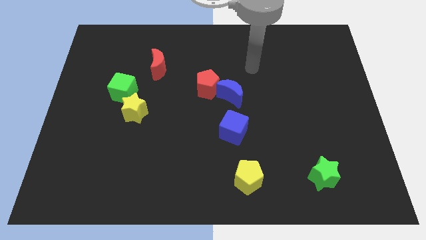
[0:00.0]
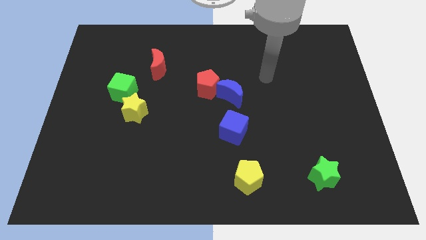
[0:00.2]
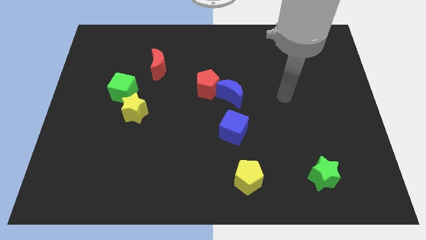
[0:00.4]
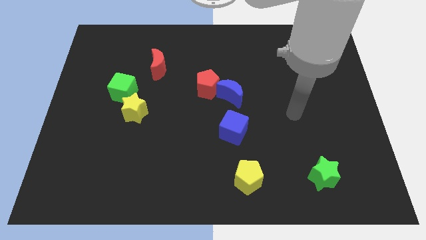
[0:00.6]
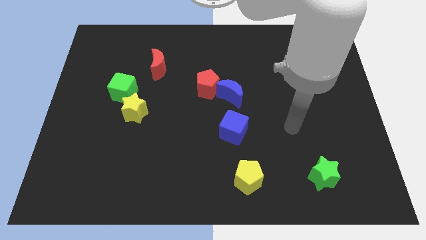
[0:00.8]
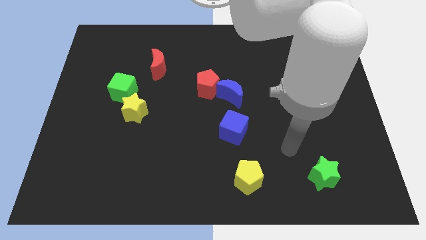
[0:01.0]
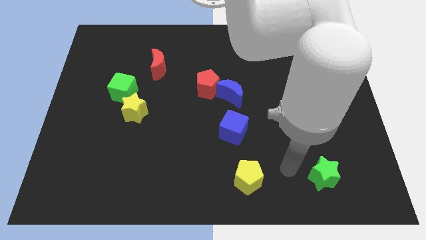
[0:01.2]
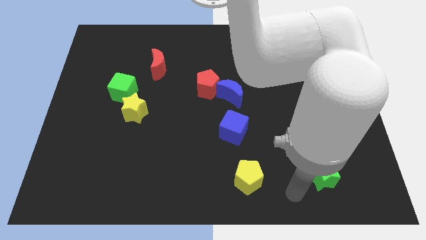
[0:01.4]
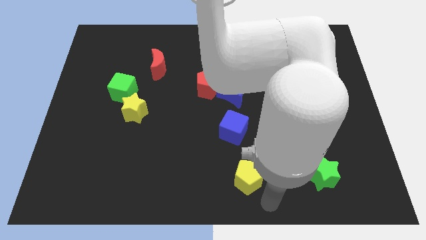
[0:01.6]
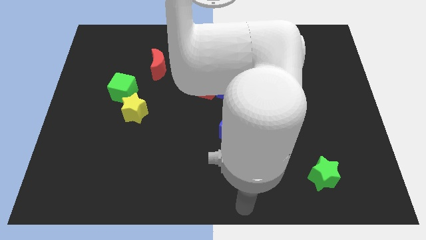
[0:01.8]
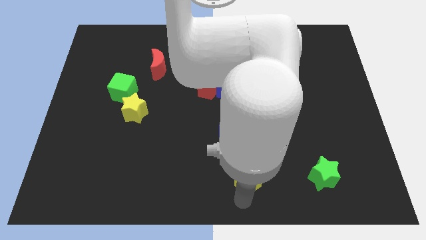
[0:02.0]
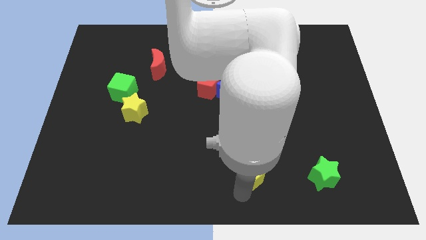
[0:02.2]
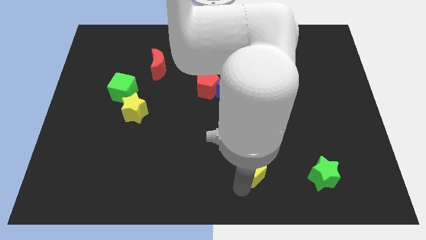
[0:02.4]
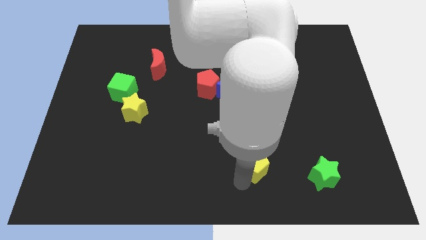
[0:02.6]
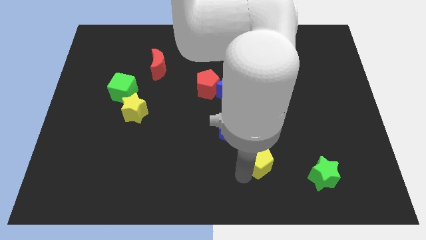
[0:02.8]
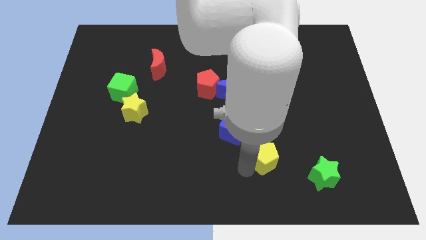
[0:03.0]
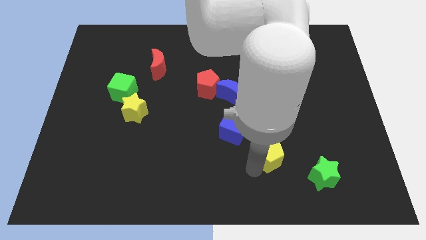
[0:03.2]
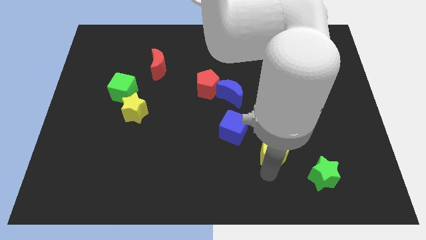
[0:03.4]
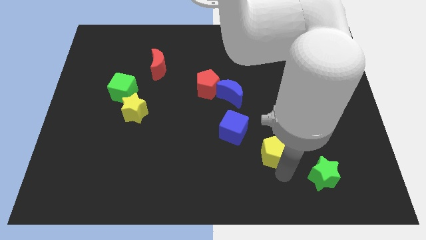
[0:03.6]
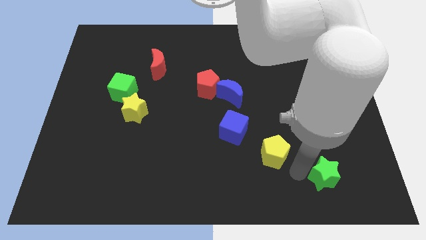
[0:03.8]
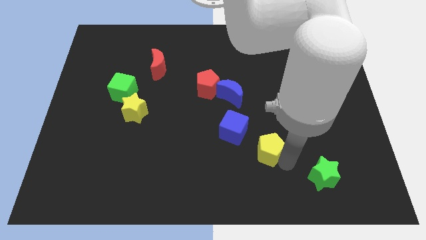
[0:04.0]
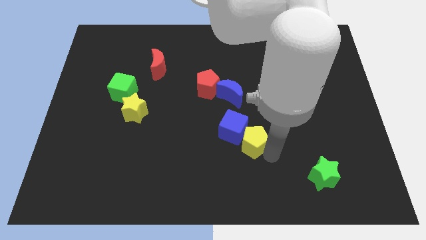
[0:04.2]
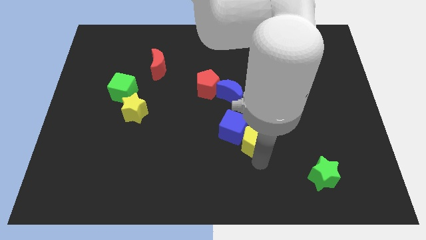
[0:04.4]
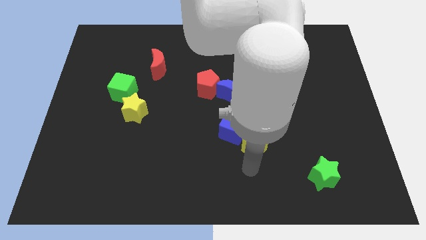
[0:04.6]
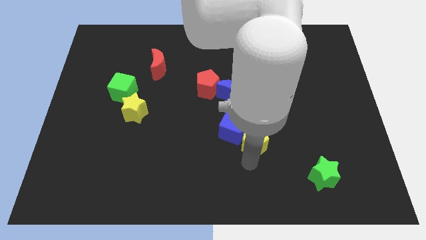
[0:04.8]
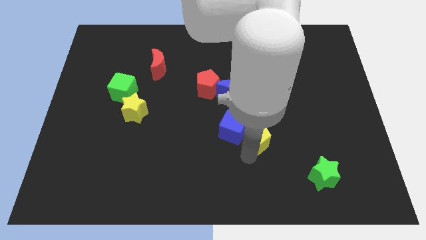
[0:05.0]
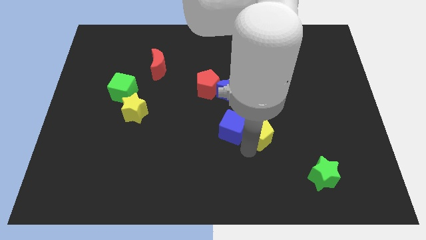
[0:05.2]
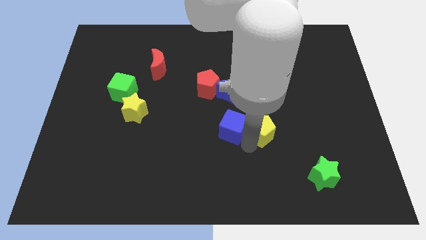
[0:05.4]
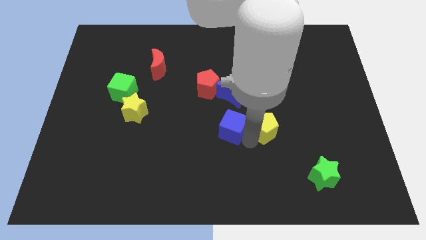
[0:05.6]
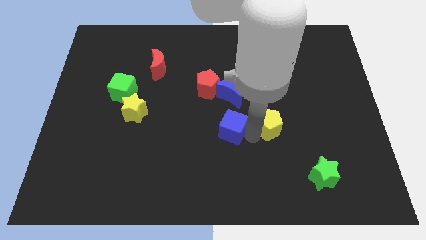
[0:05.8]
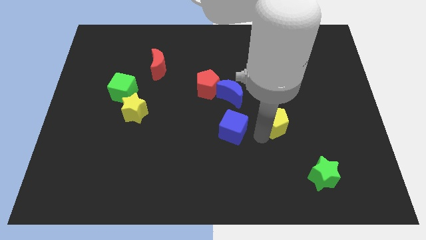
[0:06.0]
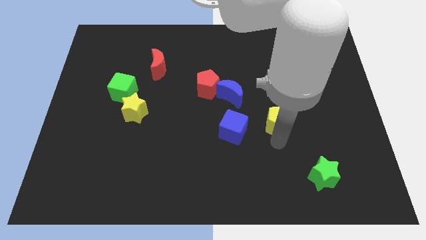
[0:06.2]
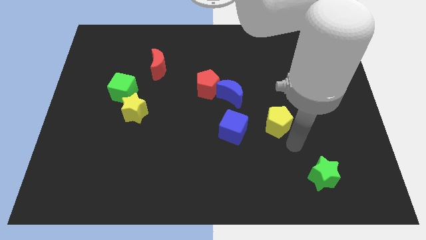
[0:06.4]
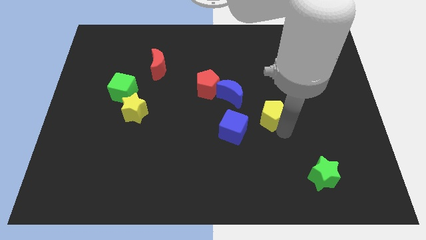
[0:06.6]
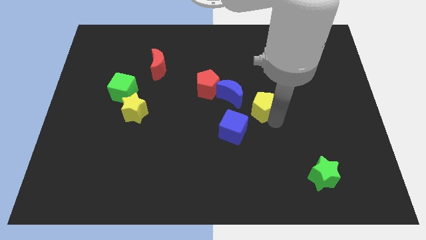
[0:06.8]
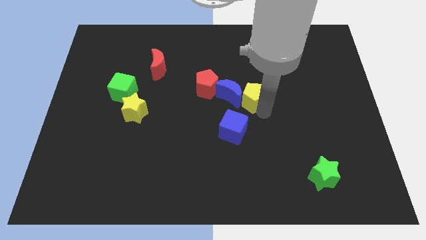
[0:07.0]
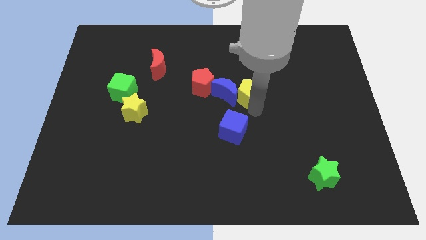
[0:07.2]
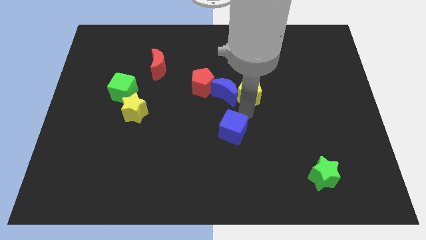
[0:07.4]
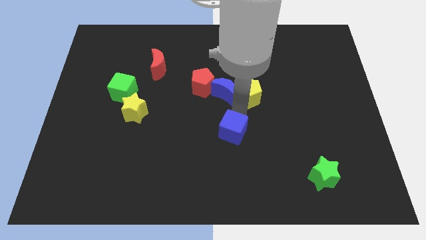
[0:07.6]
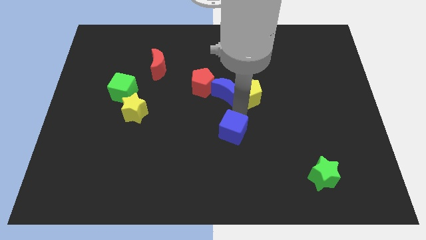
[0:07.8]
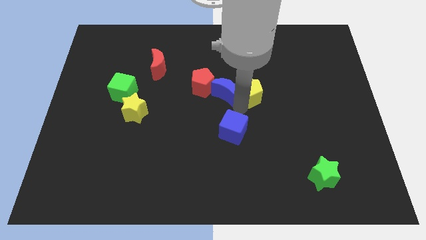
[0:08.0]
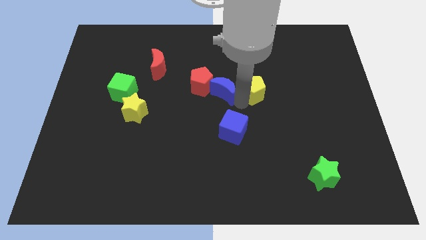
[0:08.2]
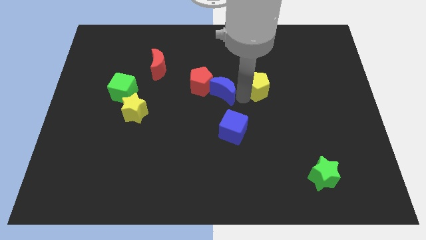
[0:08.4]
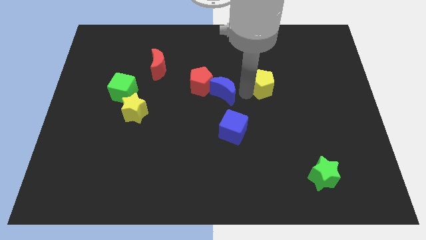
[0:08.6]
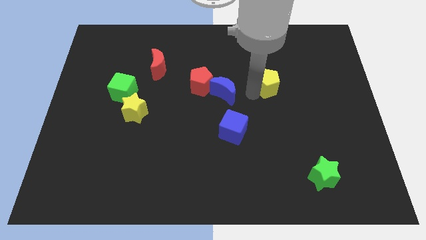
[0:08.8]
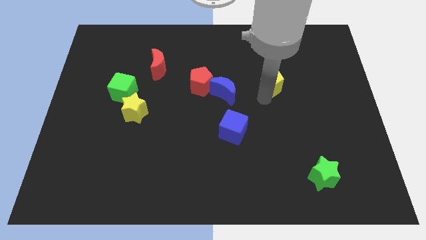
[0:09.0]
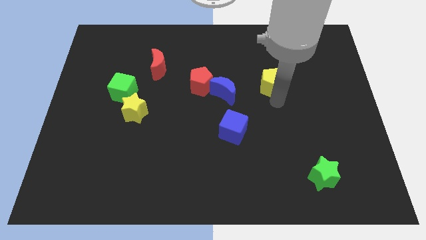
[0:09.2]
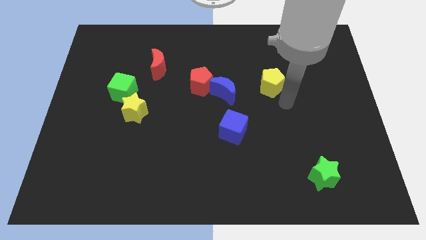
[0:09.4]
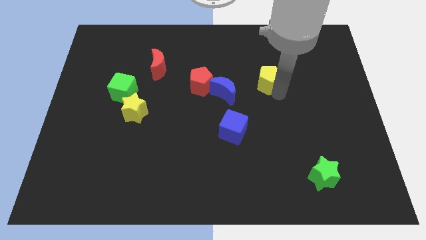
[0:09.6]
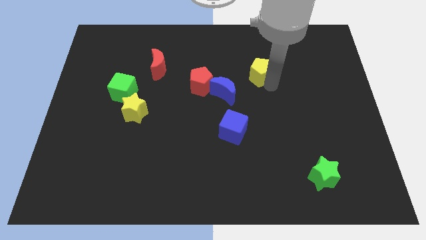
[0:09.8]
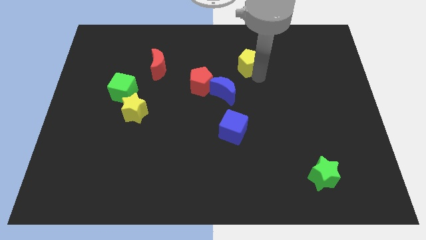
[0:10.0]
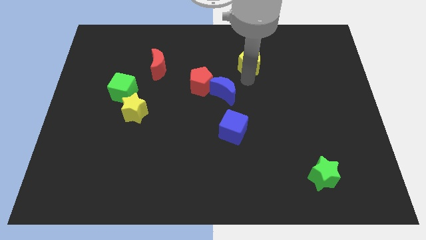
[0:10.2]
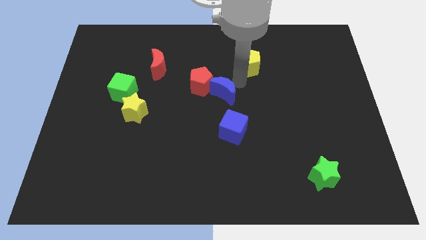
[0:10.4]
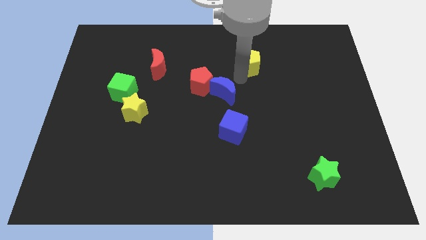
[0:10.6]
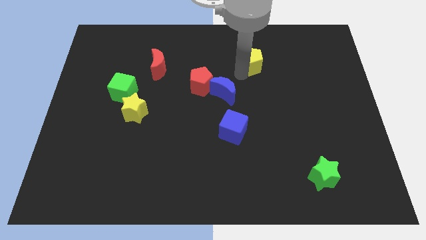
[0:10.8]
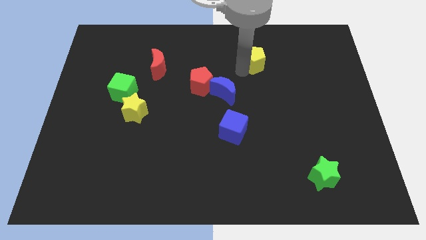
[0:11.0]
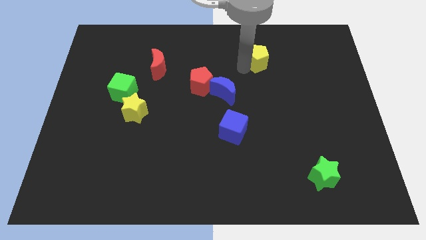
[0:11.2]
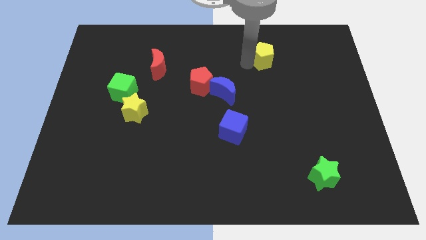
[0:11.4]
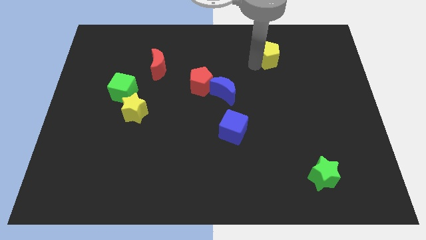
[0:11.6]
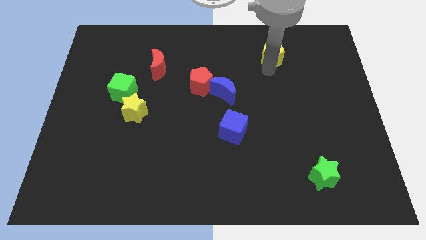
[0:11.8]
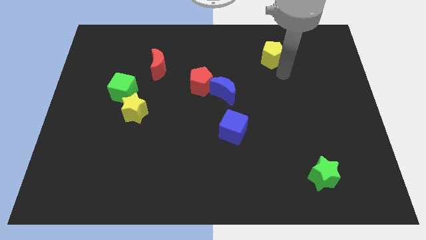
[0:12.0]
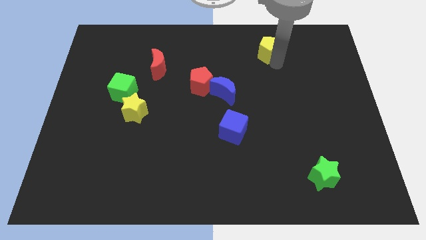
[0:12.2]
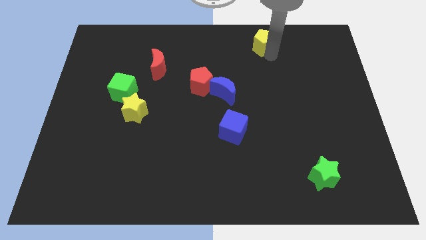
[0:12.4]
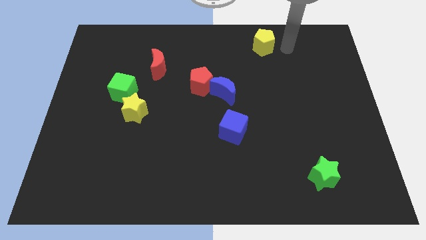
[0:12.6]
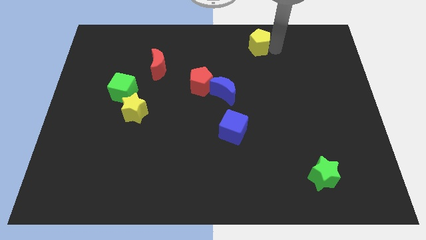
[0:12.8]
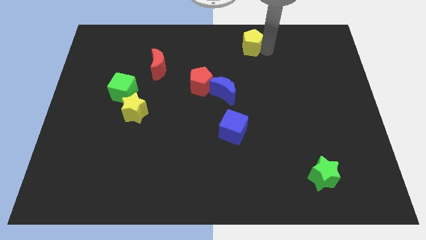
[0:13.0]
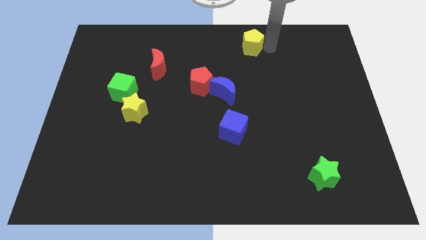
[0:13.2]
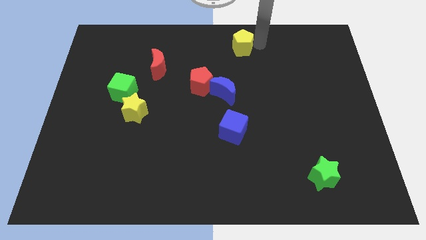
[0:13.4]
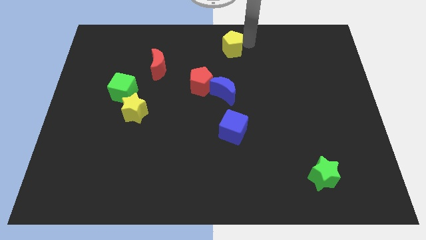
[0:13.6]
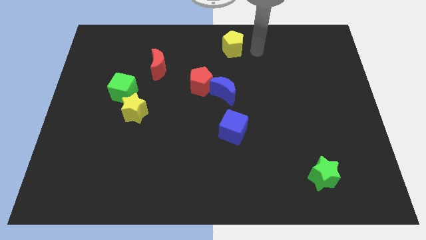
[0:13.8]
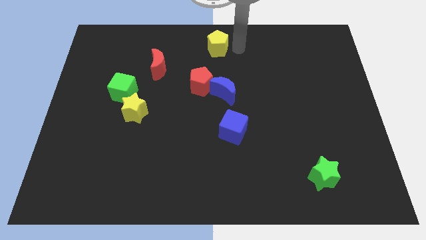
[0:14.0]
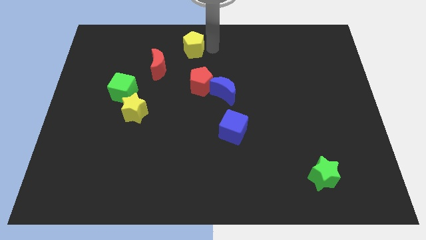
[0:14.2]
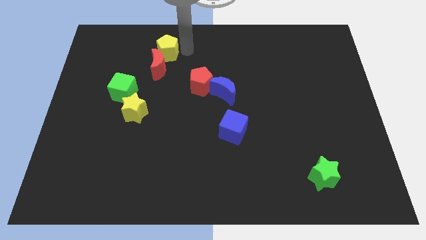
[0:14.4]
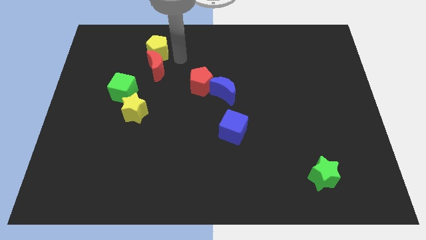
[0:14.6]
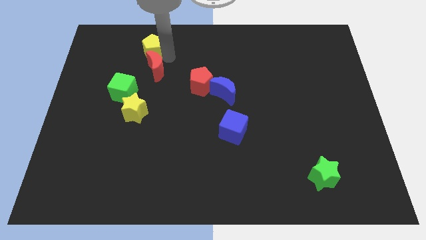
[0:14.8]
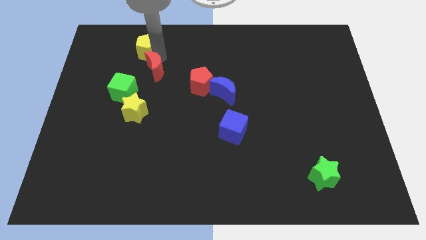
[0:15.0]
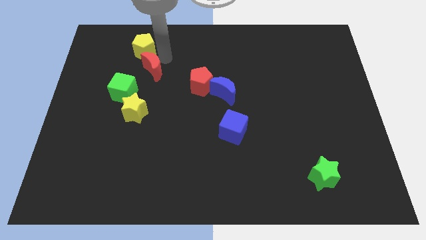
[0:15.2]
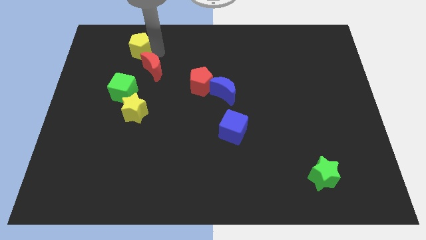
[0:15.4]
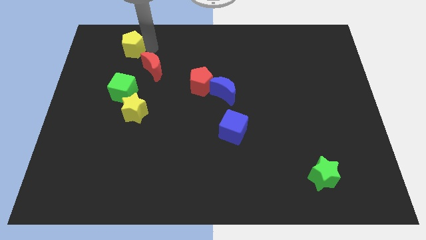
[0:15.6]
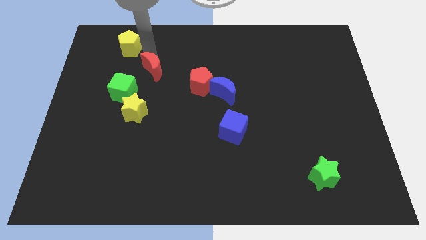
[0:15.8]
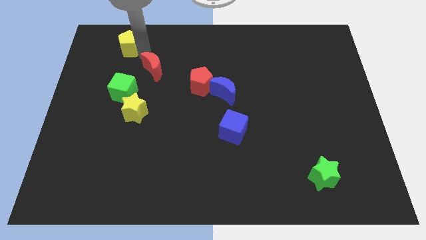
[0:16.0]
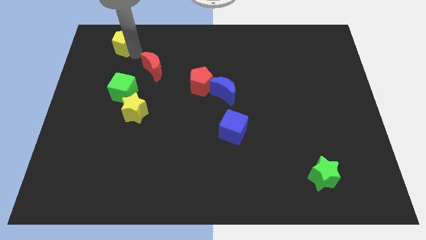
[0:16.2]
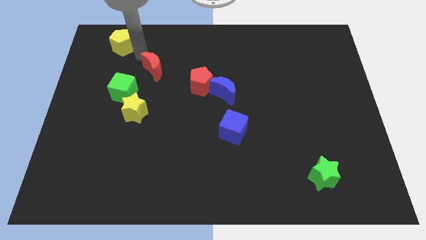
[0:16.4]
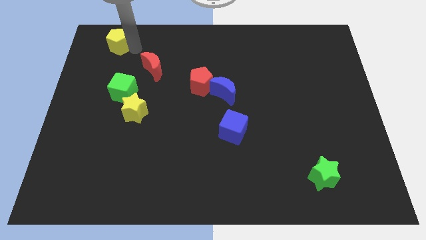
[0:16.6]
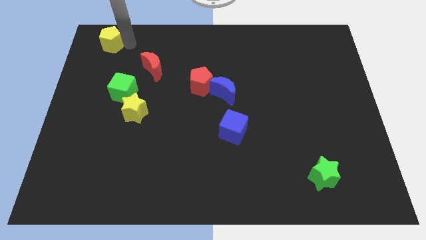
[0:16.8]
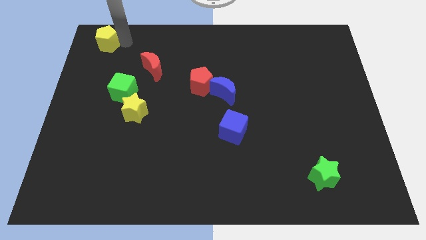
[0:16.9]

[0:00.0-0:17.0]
push the yellow pentagon to the top left corner
